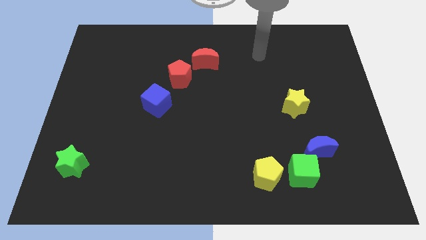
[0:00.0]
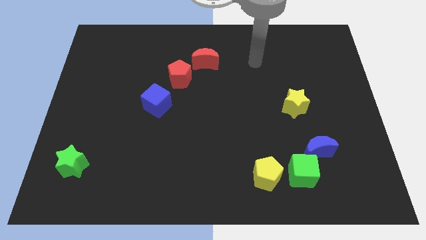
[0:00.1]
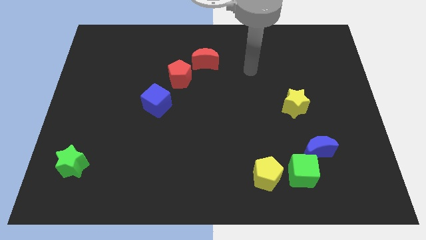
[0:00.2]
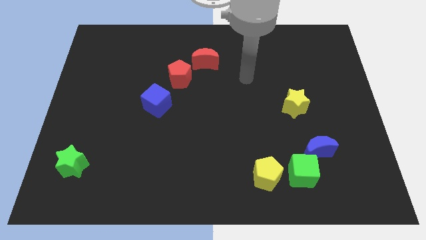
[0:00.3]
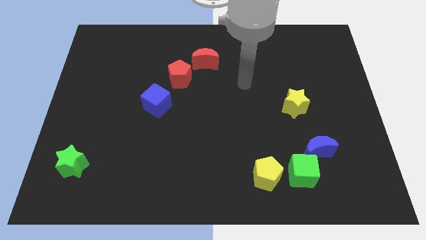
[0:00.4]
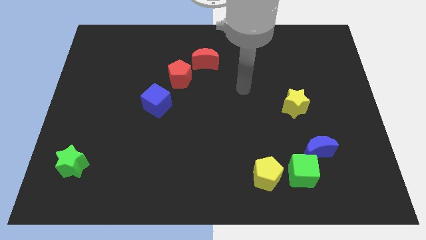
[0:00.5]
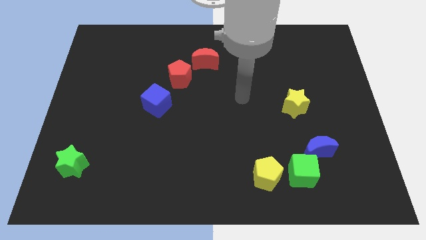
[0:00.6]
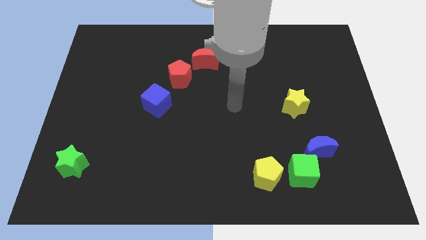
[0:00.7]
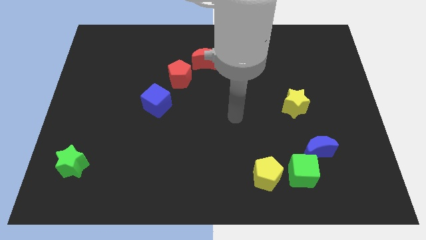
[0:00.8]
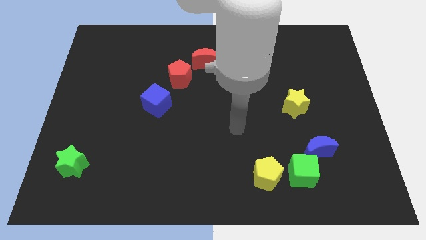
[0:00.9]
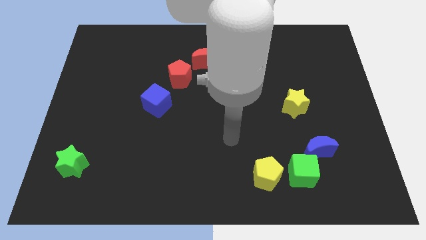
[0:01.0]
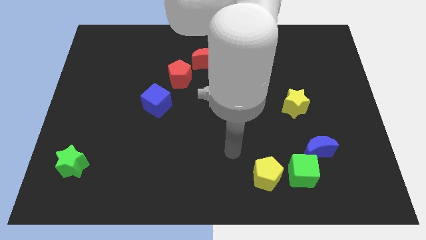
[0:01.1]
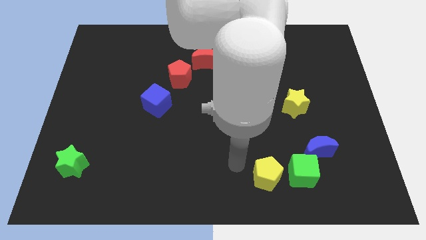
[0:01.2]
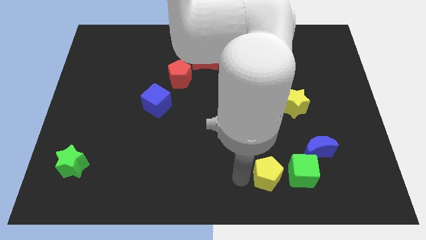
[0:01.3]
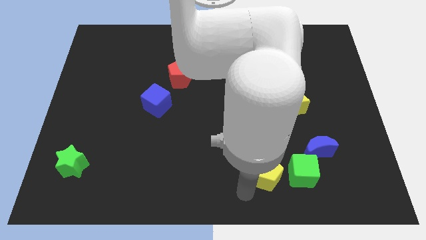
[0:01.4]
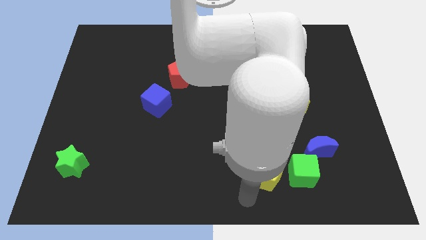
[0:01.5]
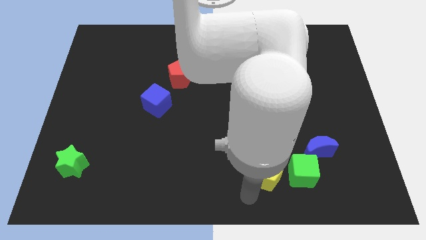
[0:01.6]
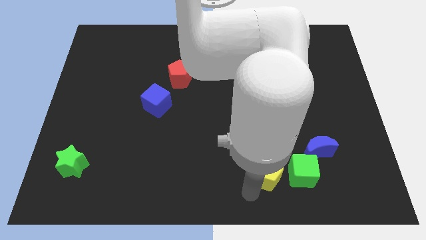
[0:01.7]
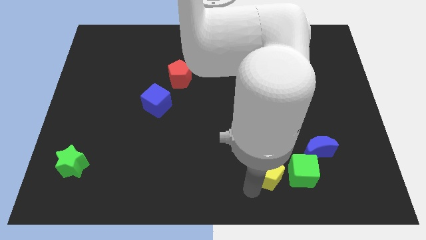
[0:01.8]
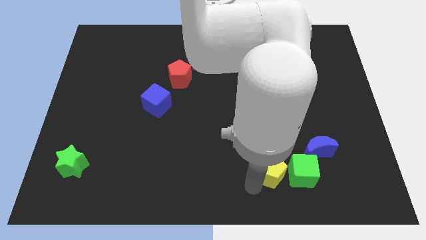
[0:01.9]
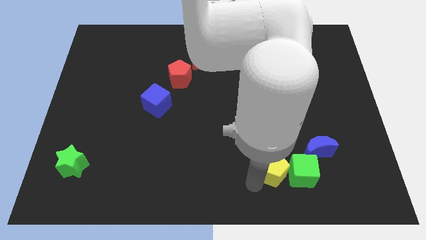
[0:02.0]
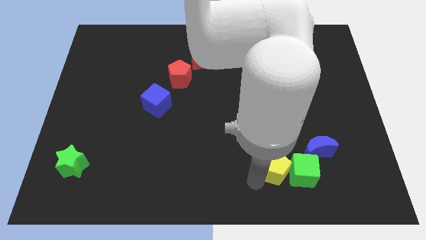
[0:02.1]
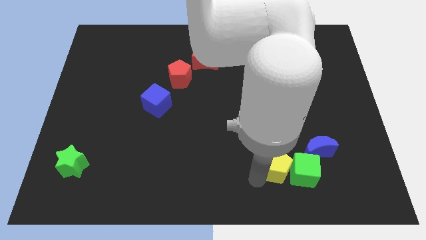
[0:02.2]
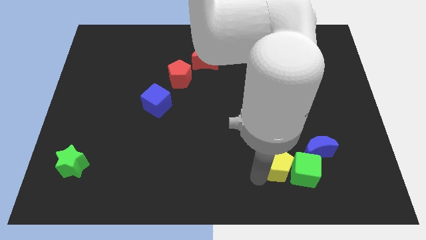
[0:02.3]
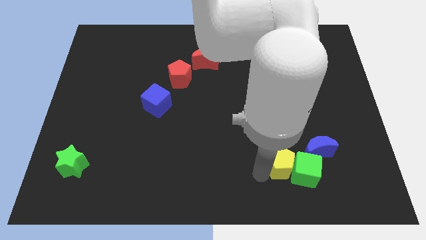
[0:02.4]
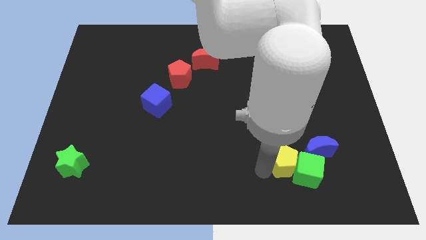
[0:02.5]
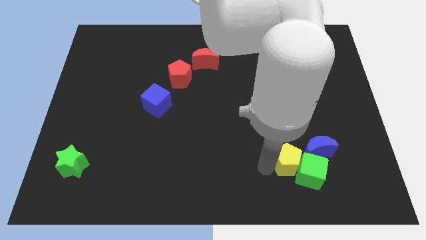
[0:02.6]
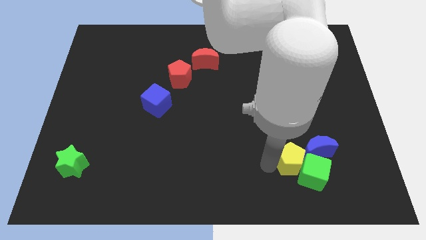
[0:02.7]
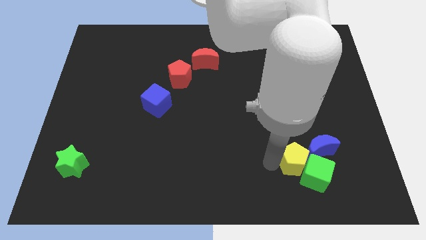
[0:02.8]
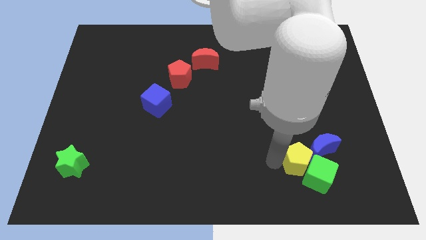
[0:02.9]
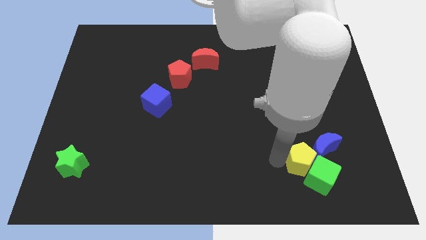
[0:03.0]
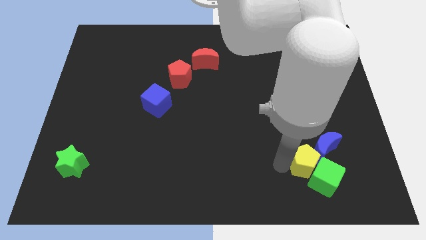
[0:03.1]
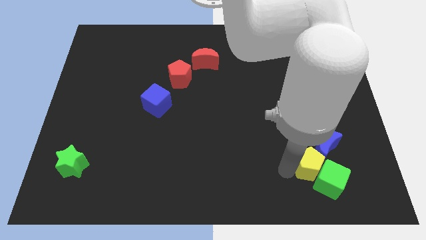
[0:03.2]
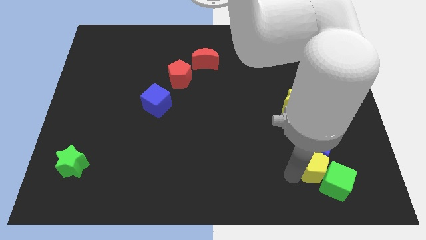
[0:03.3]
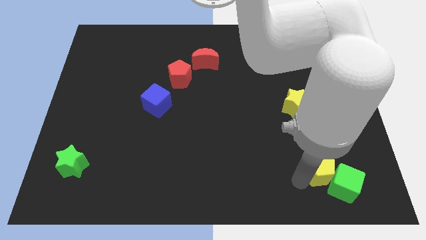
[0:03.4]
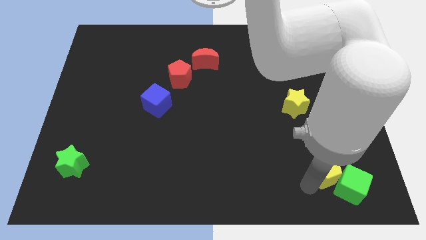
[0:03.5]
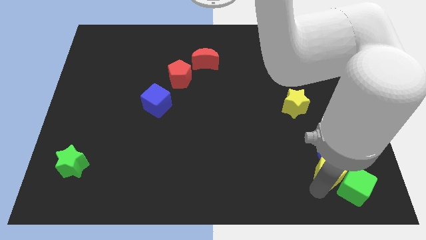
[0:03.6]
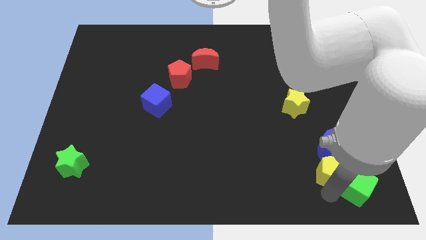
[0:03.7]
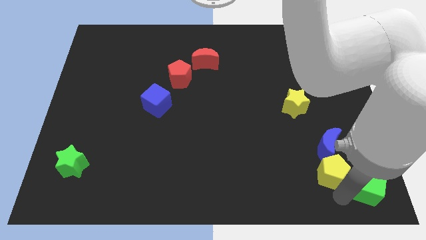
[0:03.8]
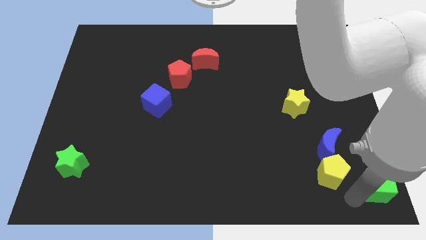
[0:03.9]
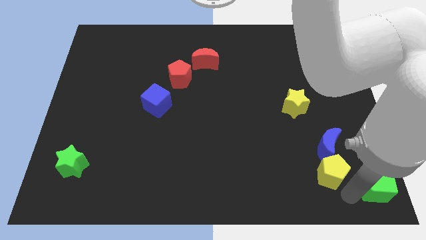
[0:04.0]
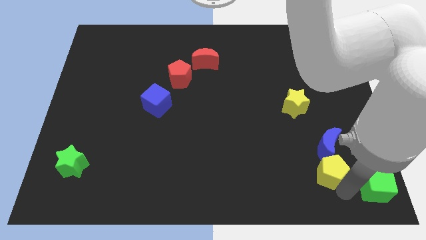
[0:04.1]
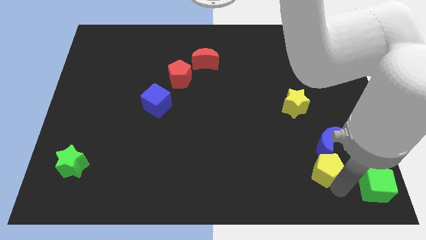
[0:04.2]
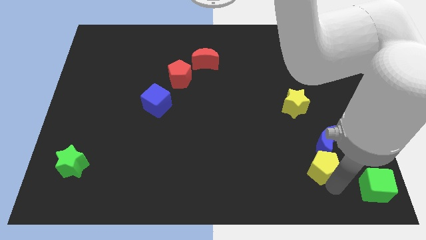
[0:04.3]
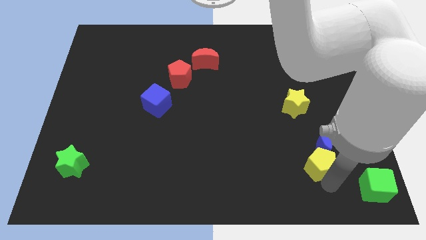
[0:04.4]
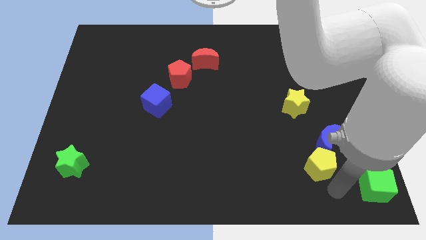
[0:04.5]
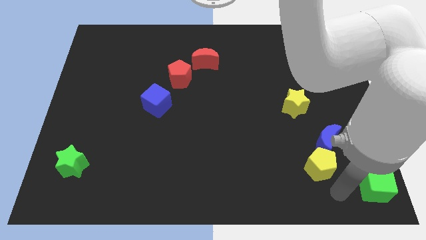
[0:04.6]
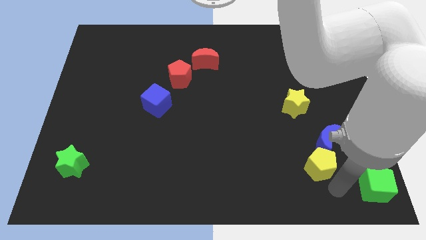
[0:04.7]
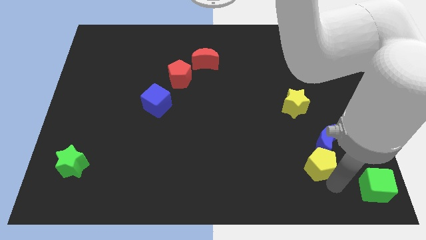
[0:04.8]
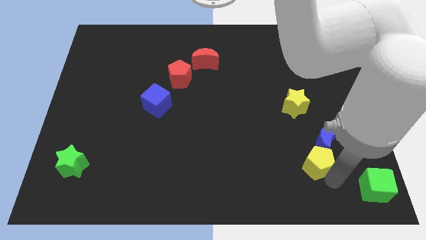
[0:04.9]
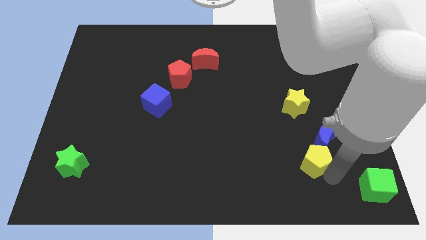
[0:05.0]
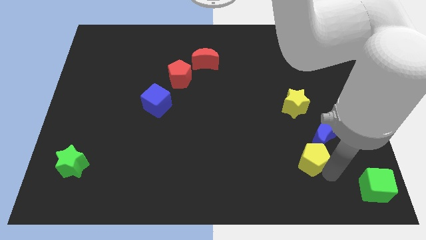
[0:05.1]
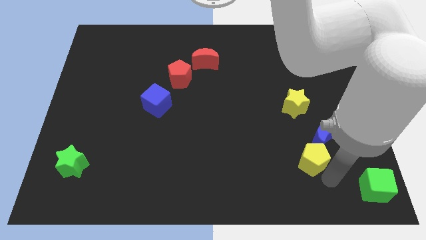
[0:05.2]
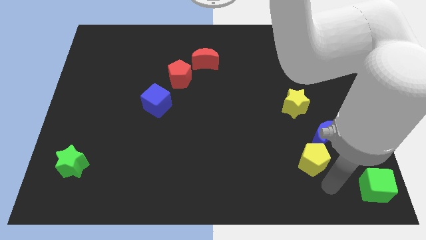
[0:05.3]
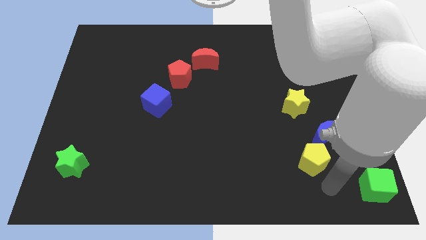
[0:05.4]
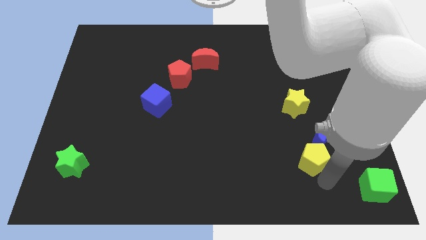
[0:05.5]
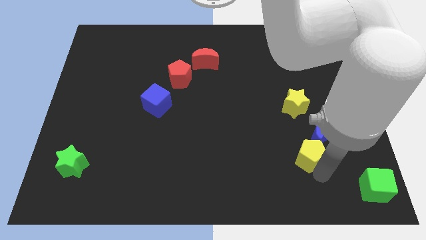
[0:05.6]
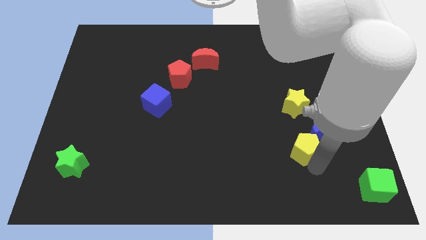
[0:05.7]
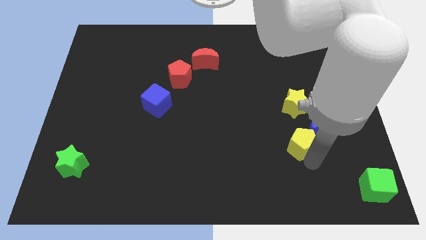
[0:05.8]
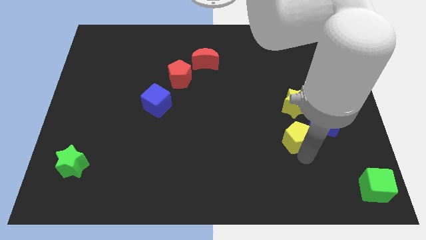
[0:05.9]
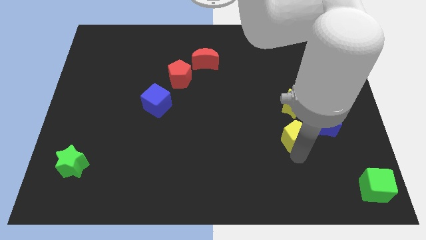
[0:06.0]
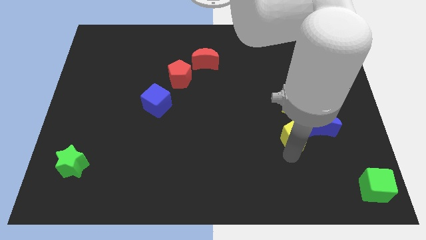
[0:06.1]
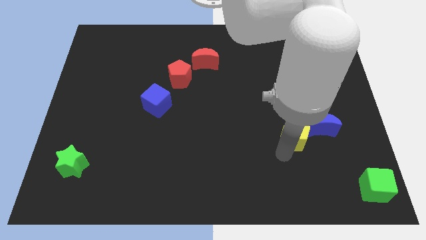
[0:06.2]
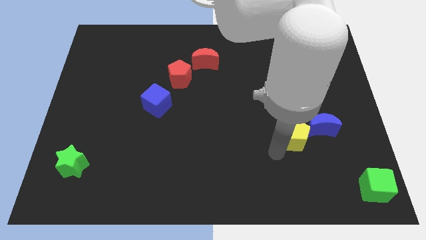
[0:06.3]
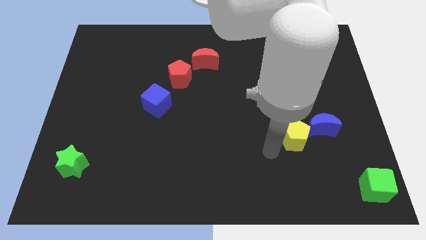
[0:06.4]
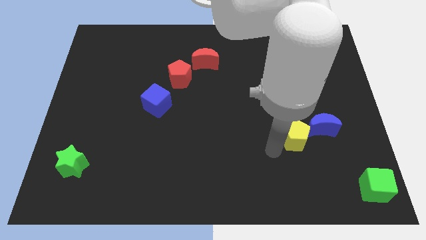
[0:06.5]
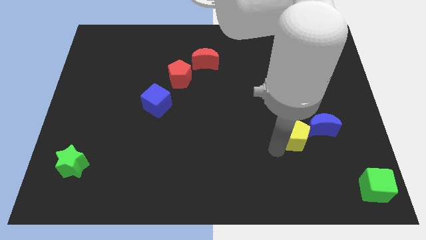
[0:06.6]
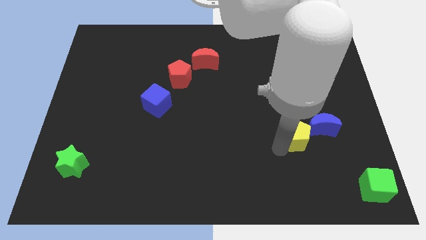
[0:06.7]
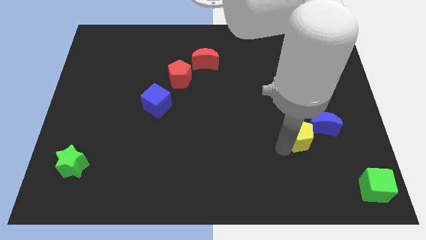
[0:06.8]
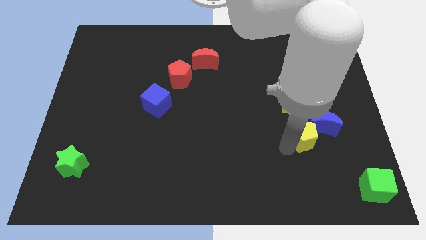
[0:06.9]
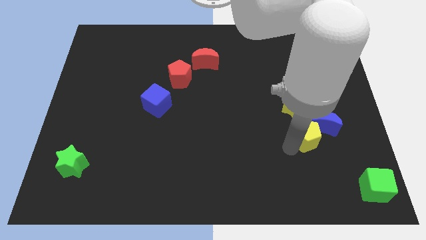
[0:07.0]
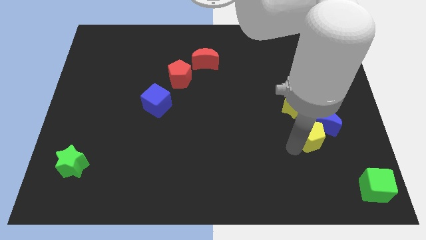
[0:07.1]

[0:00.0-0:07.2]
put the yellow pentagon to the bottom right of the yellow star
